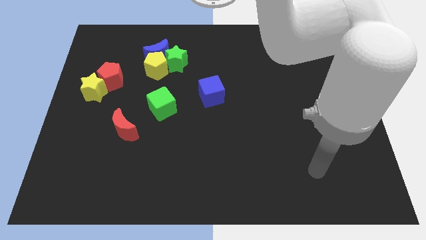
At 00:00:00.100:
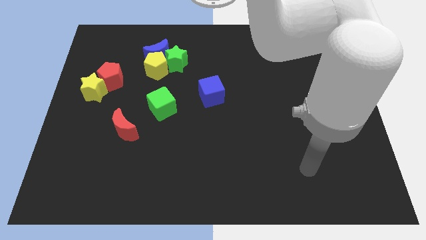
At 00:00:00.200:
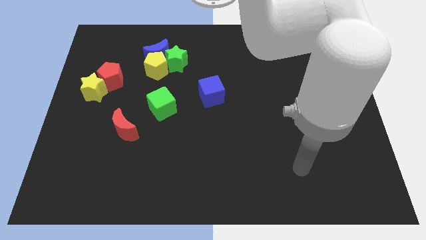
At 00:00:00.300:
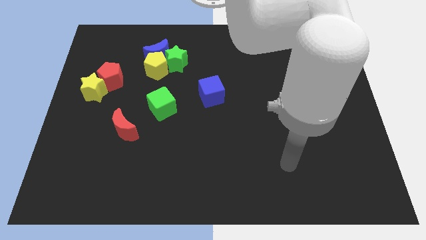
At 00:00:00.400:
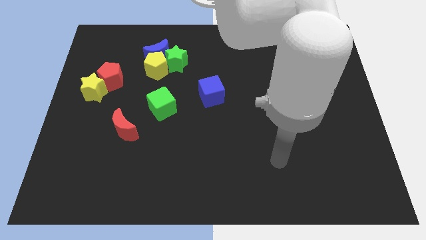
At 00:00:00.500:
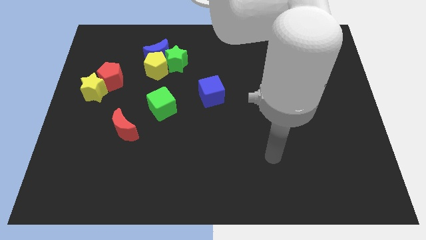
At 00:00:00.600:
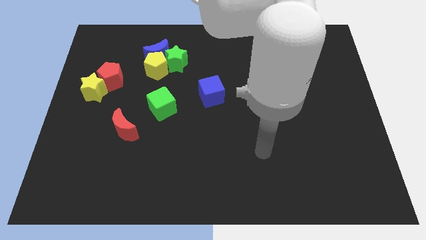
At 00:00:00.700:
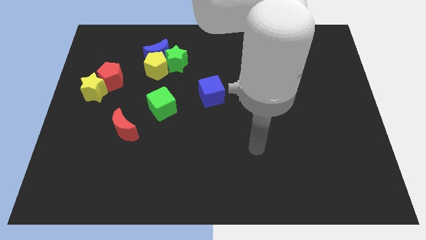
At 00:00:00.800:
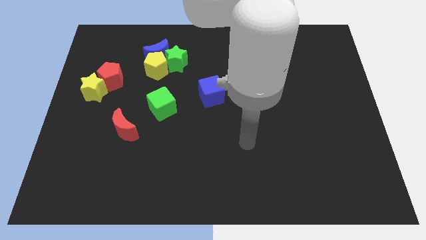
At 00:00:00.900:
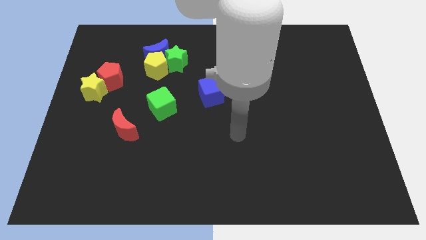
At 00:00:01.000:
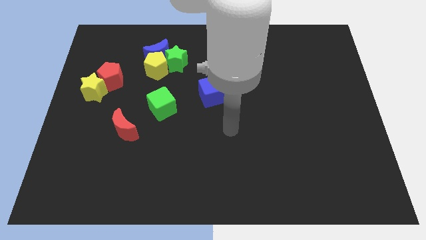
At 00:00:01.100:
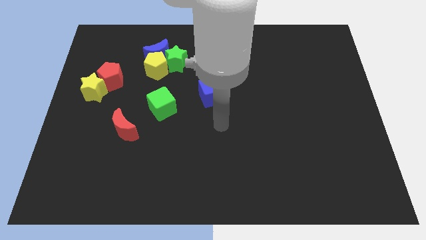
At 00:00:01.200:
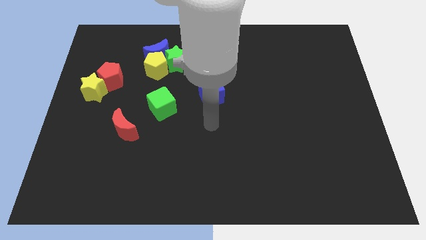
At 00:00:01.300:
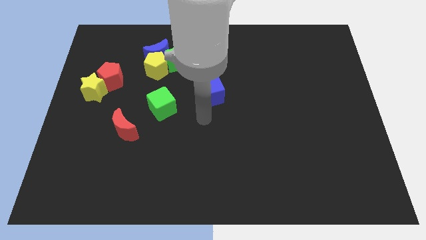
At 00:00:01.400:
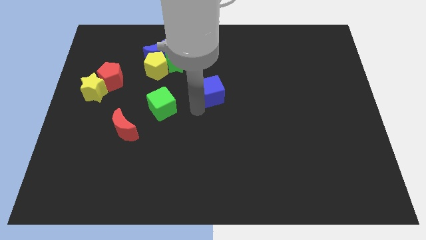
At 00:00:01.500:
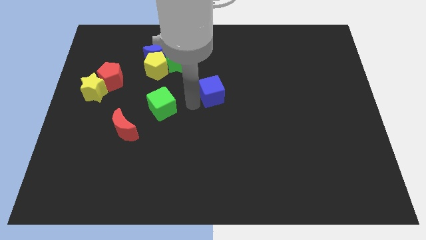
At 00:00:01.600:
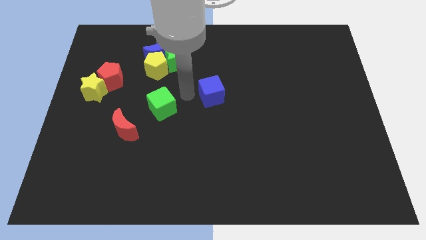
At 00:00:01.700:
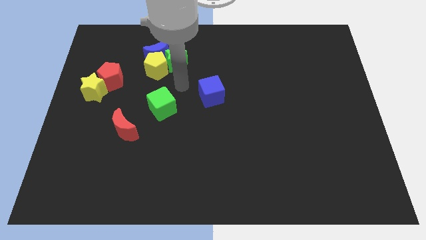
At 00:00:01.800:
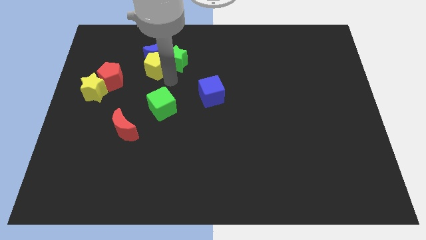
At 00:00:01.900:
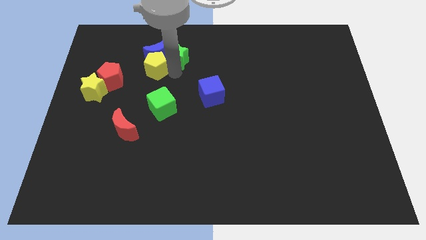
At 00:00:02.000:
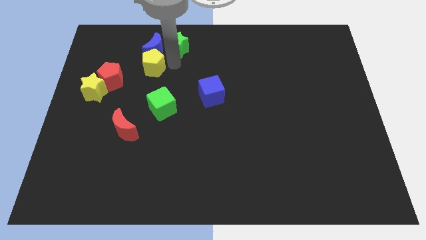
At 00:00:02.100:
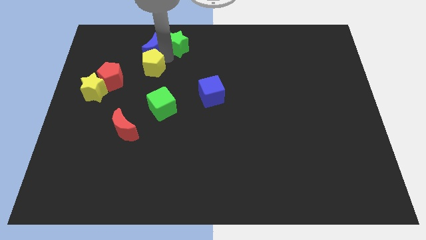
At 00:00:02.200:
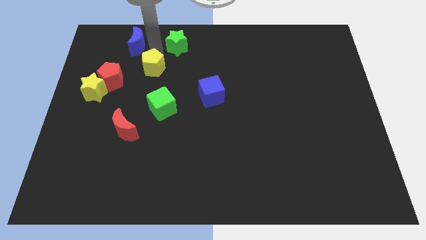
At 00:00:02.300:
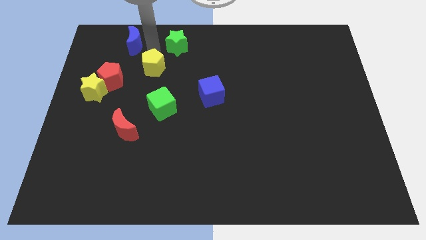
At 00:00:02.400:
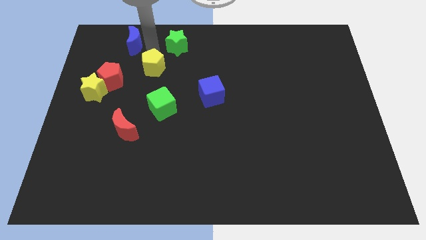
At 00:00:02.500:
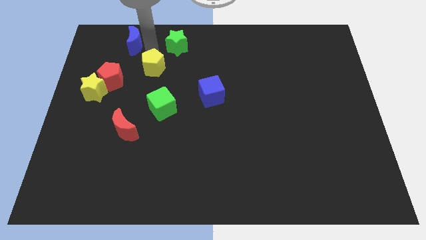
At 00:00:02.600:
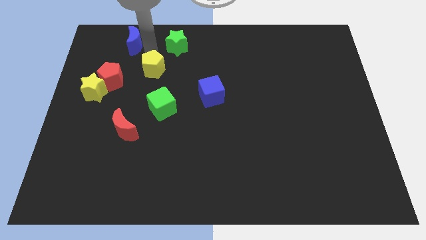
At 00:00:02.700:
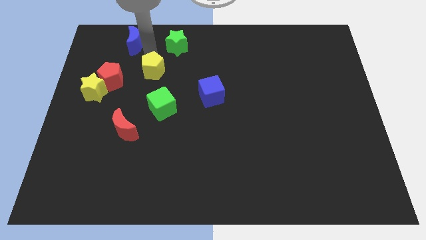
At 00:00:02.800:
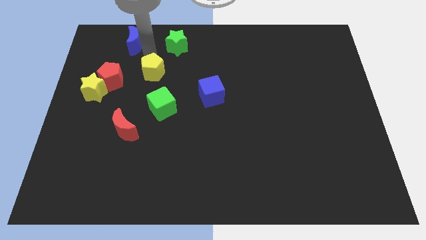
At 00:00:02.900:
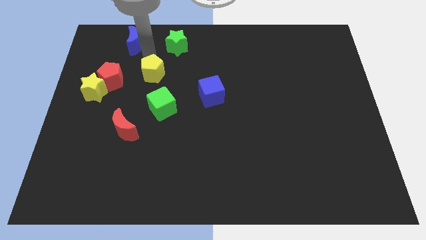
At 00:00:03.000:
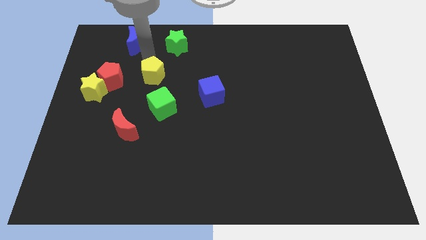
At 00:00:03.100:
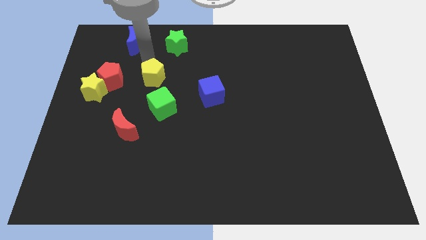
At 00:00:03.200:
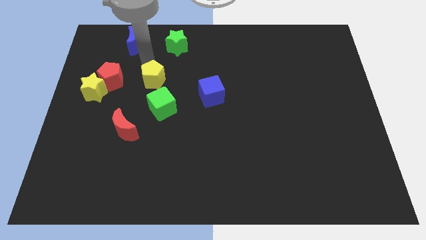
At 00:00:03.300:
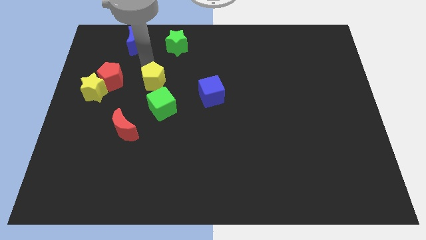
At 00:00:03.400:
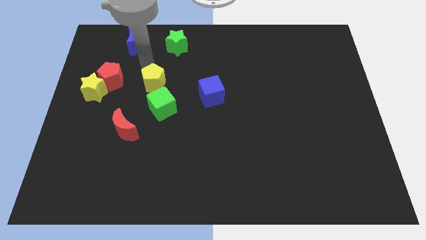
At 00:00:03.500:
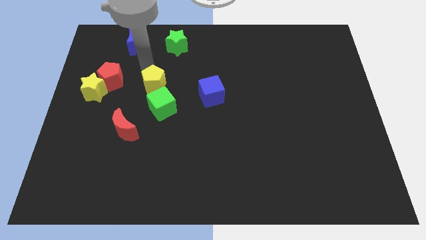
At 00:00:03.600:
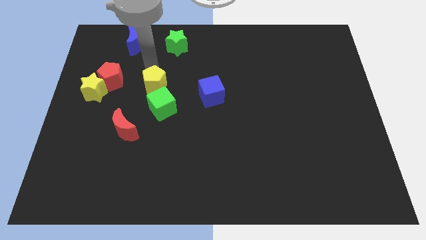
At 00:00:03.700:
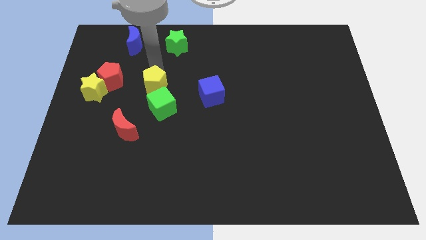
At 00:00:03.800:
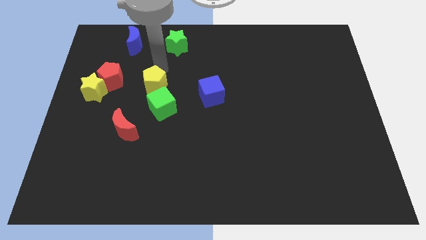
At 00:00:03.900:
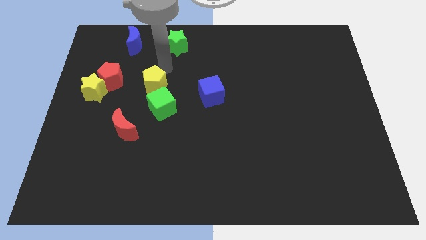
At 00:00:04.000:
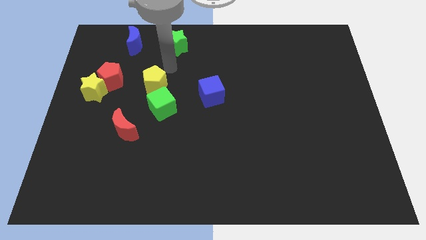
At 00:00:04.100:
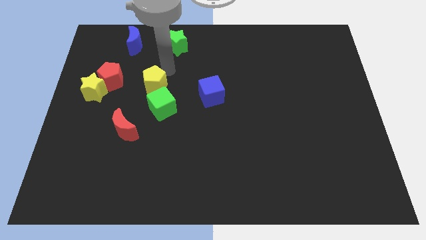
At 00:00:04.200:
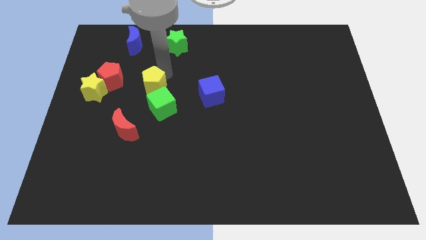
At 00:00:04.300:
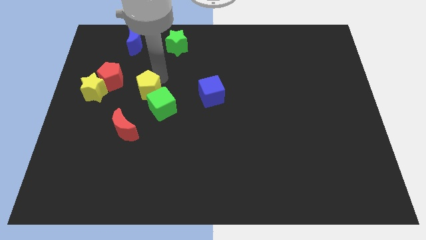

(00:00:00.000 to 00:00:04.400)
slide the yellow pentagon a bit down

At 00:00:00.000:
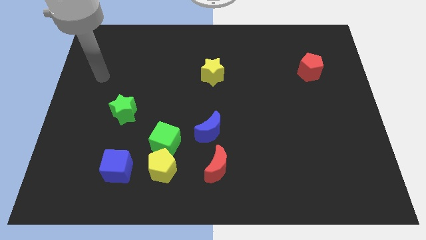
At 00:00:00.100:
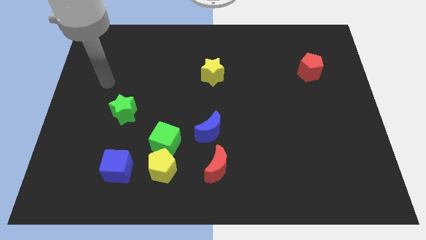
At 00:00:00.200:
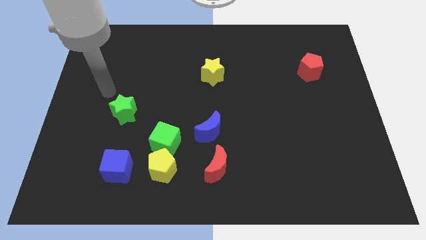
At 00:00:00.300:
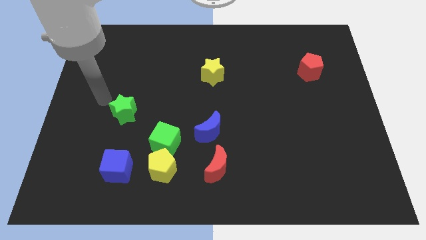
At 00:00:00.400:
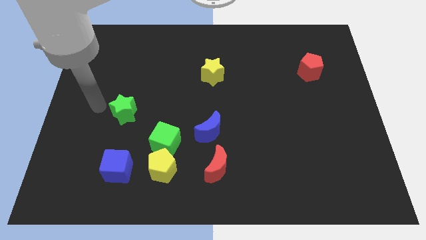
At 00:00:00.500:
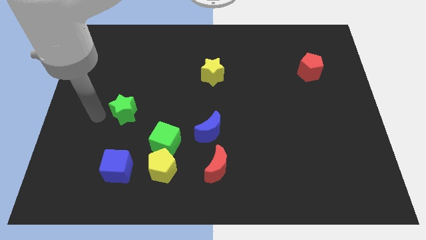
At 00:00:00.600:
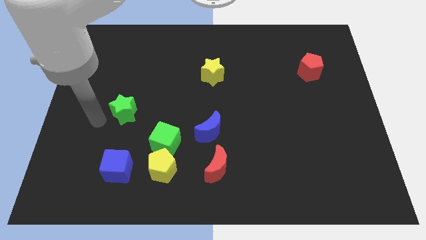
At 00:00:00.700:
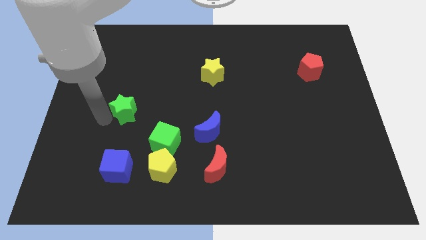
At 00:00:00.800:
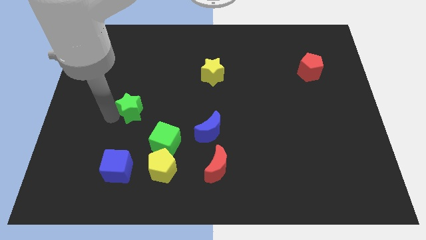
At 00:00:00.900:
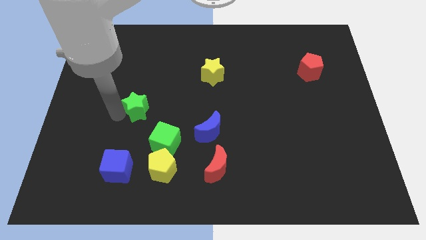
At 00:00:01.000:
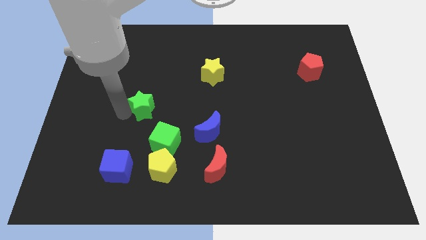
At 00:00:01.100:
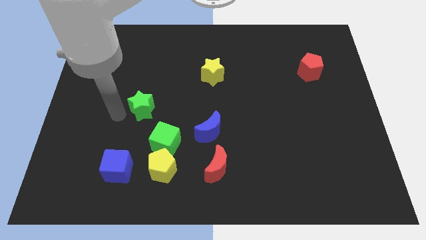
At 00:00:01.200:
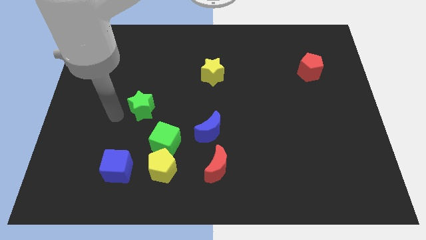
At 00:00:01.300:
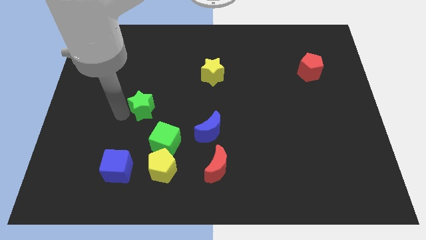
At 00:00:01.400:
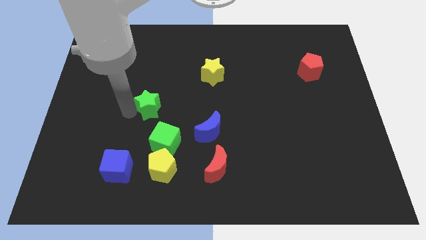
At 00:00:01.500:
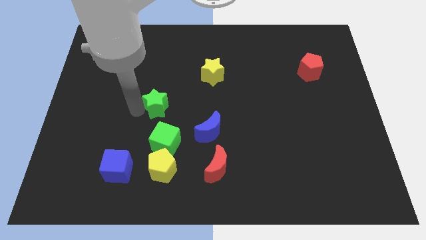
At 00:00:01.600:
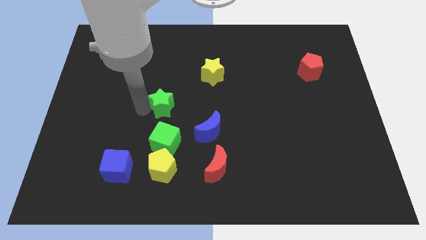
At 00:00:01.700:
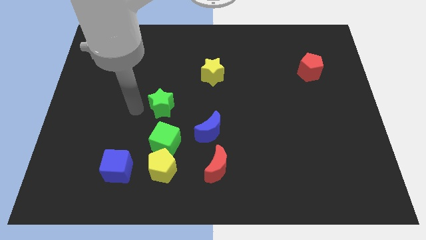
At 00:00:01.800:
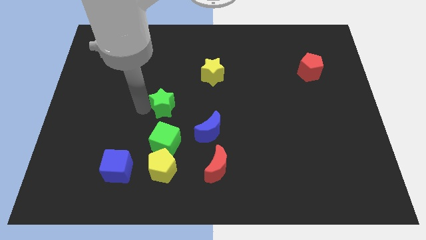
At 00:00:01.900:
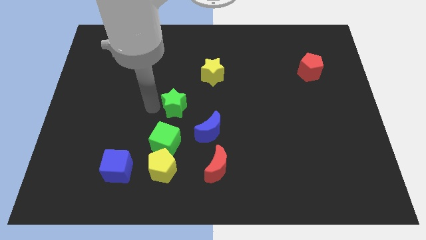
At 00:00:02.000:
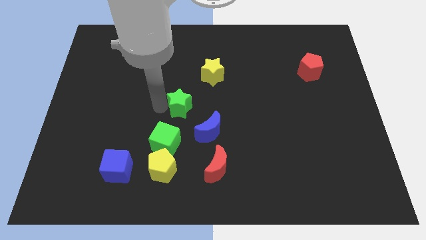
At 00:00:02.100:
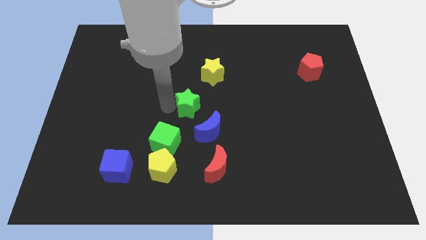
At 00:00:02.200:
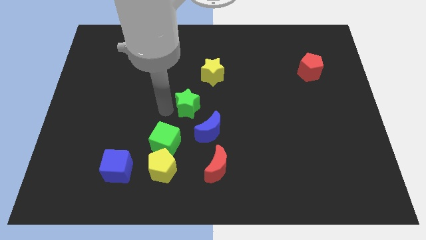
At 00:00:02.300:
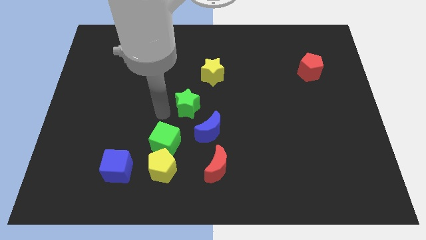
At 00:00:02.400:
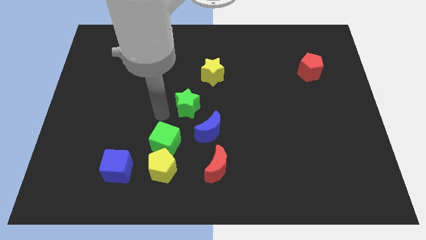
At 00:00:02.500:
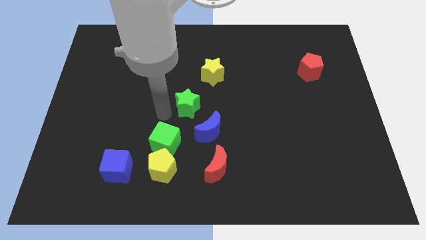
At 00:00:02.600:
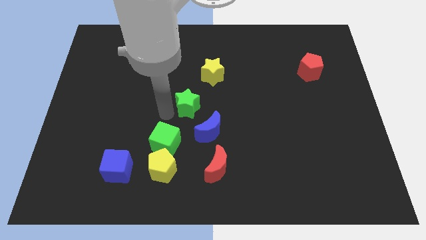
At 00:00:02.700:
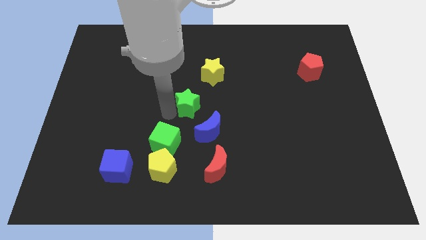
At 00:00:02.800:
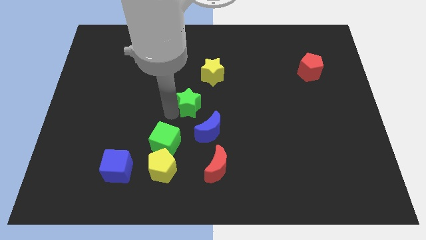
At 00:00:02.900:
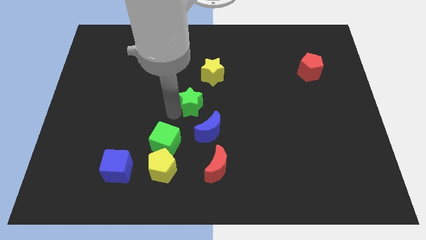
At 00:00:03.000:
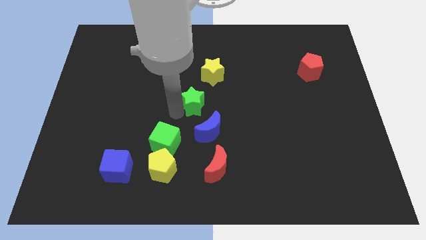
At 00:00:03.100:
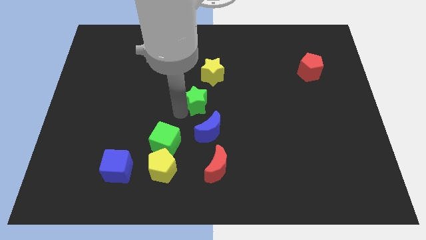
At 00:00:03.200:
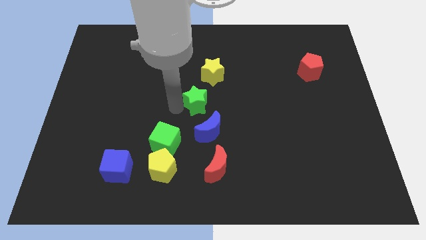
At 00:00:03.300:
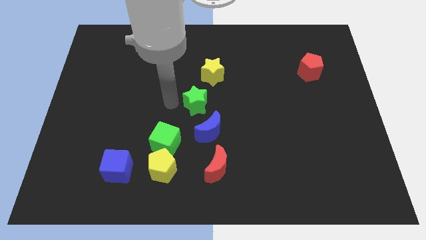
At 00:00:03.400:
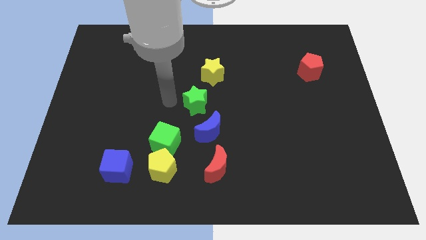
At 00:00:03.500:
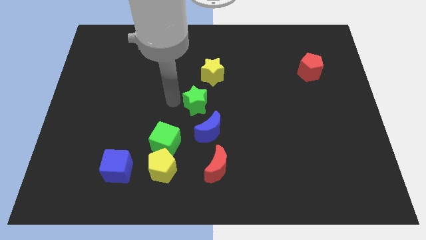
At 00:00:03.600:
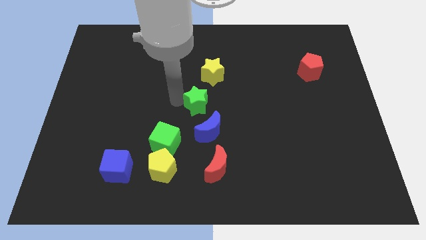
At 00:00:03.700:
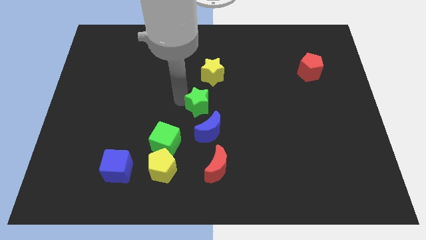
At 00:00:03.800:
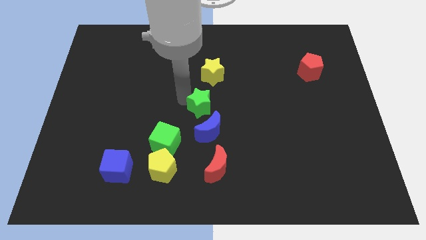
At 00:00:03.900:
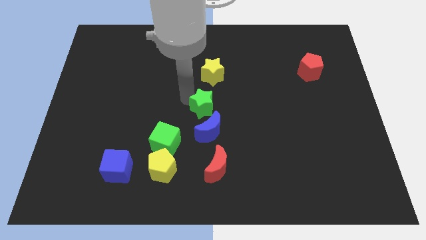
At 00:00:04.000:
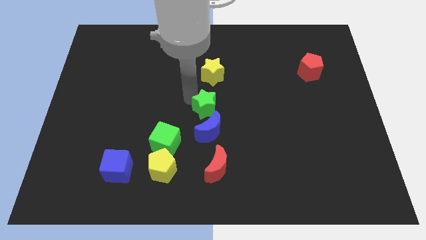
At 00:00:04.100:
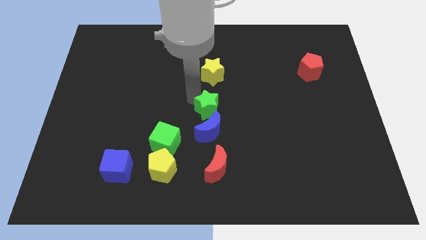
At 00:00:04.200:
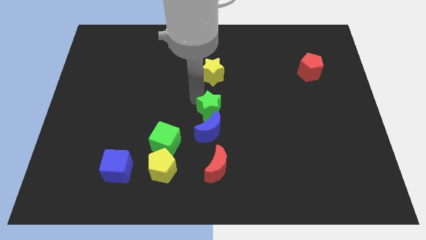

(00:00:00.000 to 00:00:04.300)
move the green star to the right
